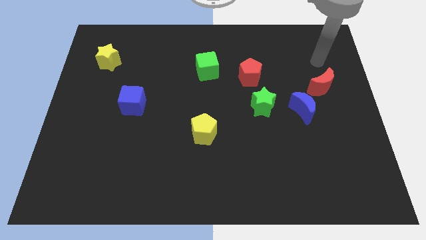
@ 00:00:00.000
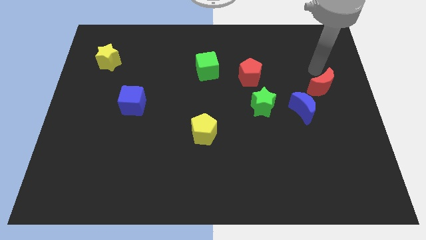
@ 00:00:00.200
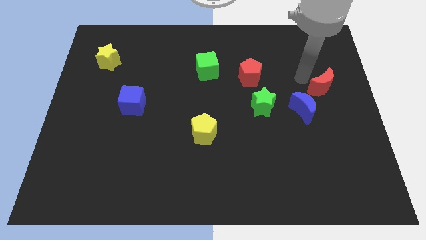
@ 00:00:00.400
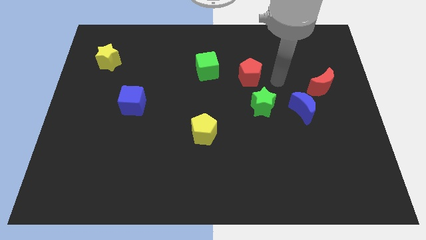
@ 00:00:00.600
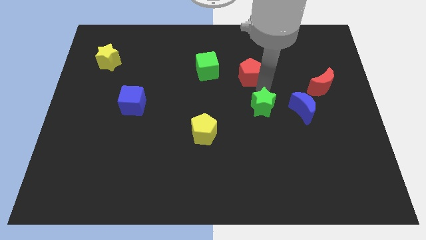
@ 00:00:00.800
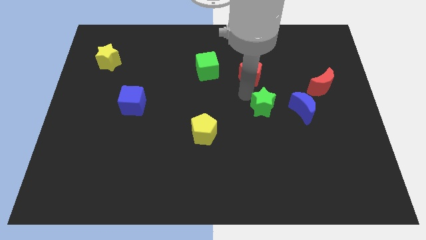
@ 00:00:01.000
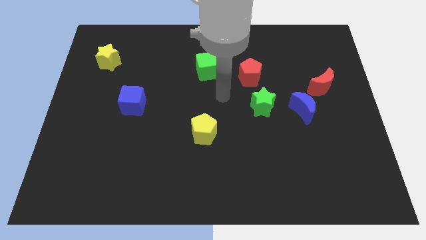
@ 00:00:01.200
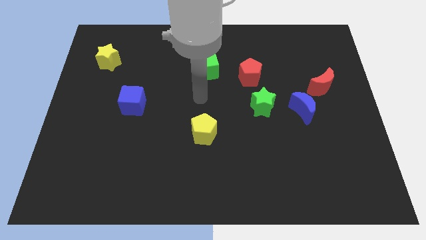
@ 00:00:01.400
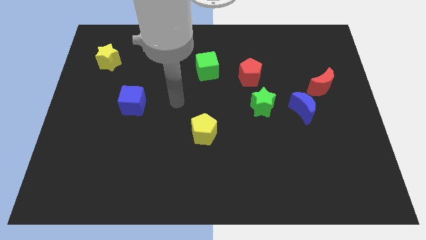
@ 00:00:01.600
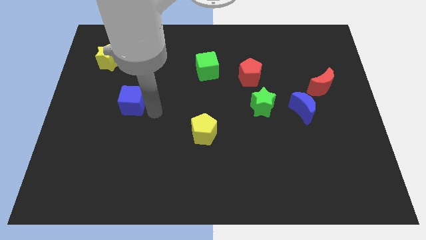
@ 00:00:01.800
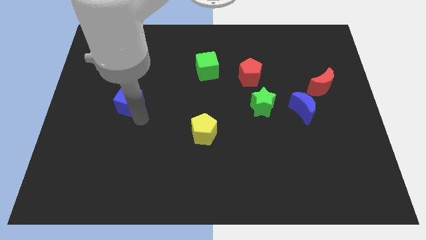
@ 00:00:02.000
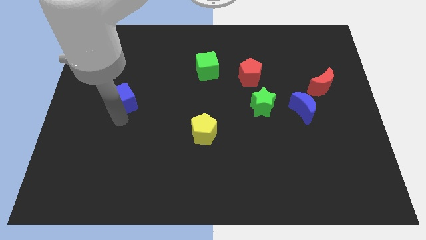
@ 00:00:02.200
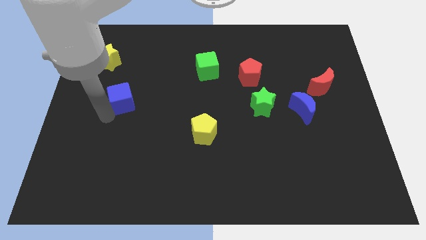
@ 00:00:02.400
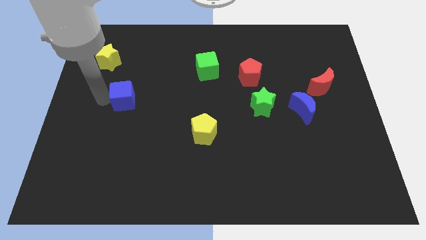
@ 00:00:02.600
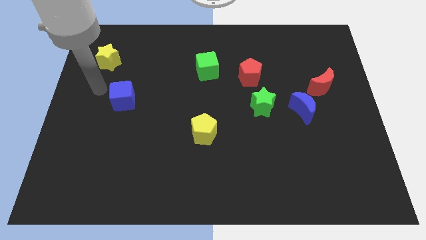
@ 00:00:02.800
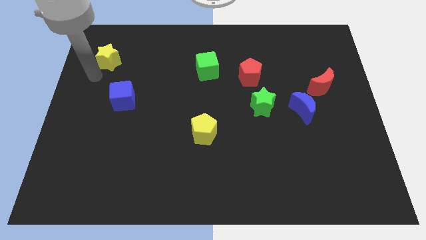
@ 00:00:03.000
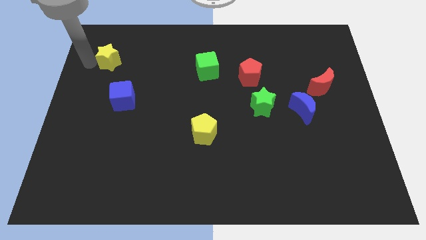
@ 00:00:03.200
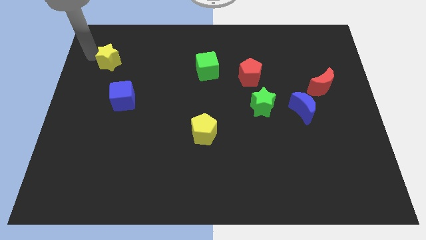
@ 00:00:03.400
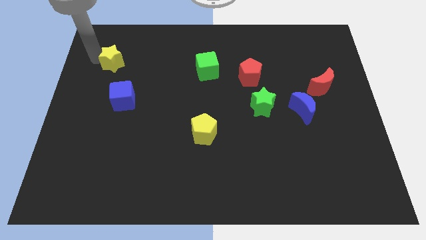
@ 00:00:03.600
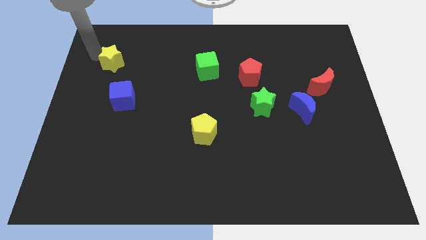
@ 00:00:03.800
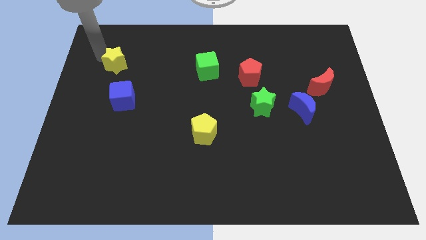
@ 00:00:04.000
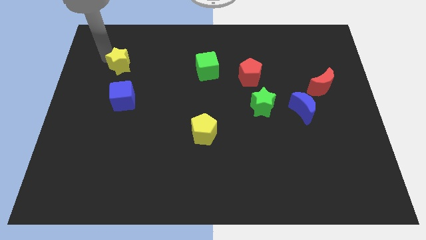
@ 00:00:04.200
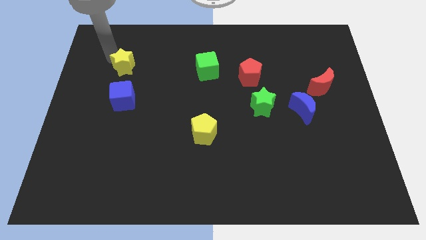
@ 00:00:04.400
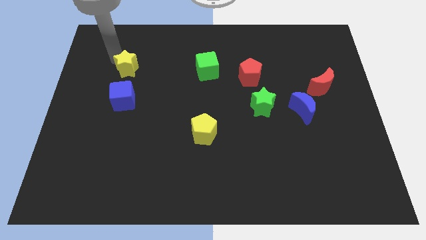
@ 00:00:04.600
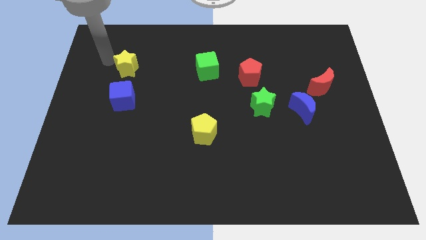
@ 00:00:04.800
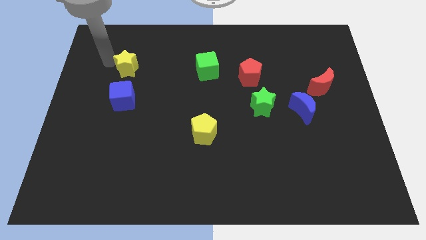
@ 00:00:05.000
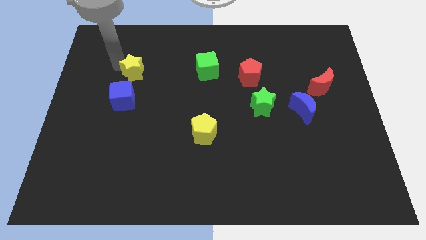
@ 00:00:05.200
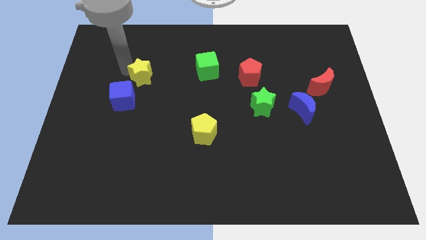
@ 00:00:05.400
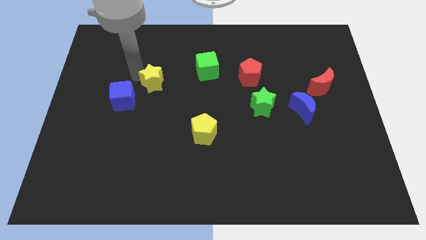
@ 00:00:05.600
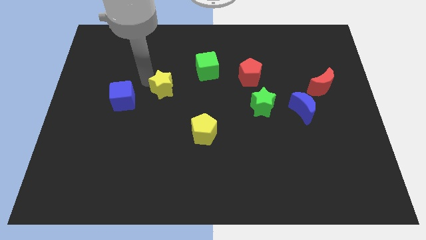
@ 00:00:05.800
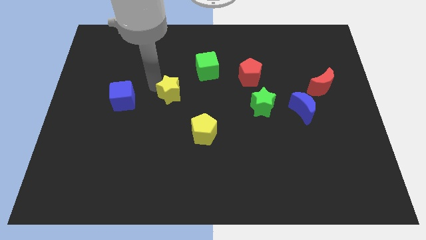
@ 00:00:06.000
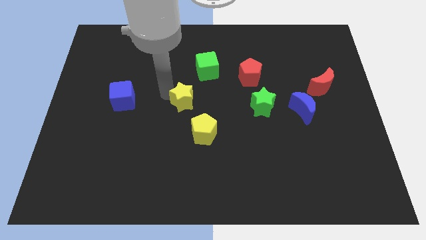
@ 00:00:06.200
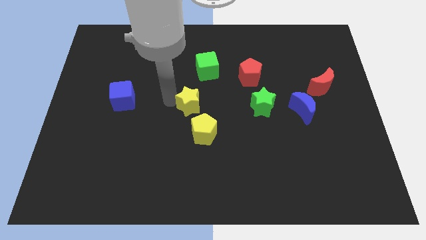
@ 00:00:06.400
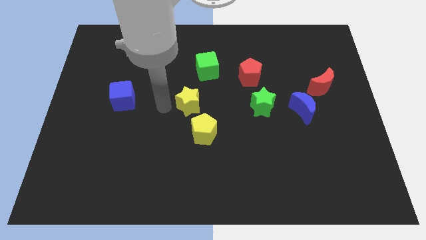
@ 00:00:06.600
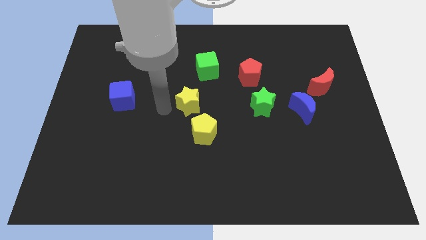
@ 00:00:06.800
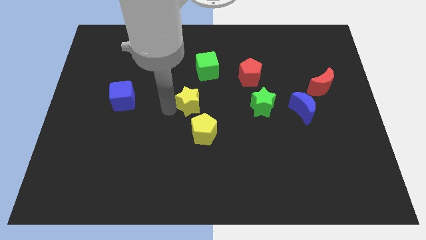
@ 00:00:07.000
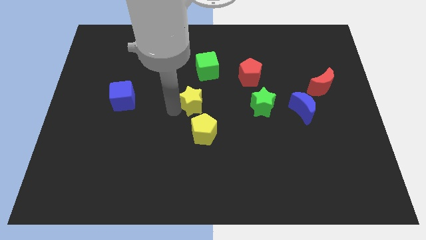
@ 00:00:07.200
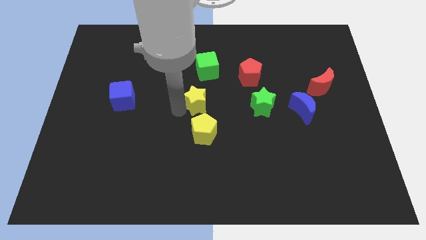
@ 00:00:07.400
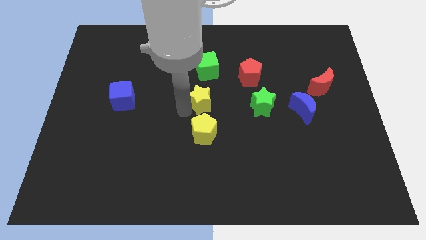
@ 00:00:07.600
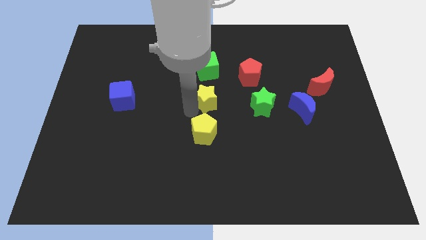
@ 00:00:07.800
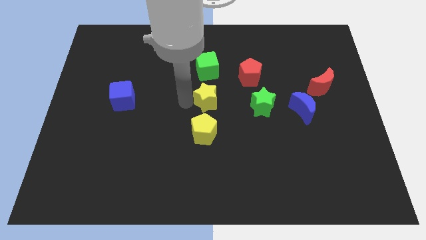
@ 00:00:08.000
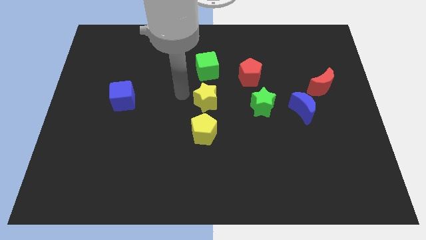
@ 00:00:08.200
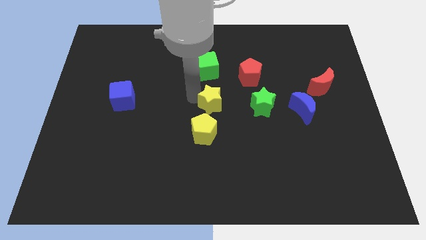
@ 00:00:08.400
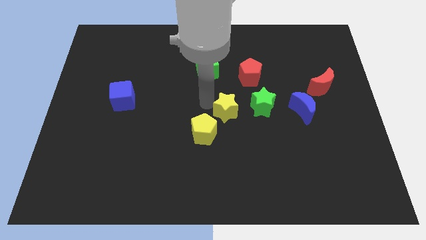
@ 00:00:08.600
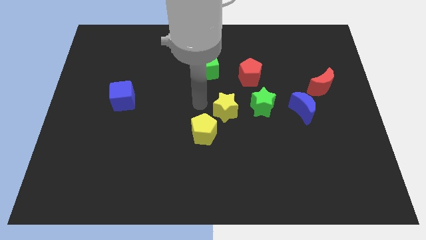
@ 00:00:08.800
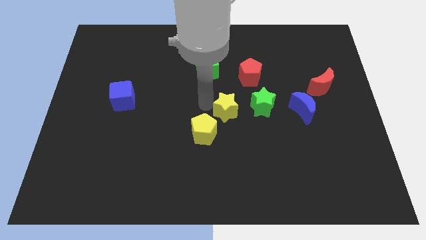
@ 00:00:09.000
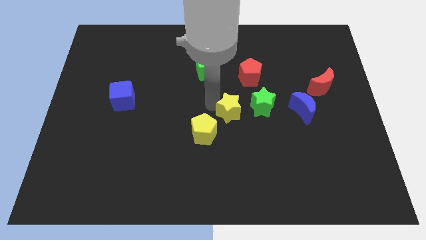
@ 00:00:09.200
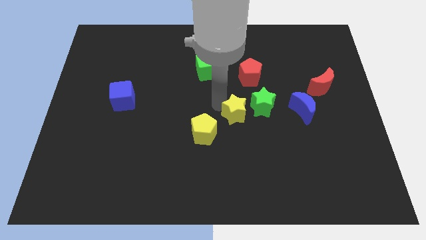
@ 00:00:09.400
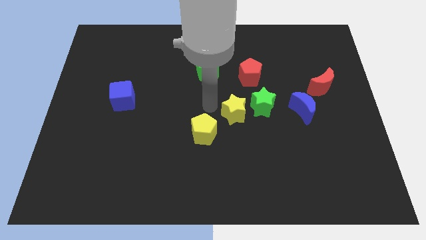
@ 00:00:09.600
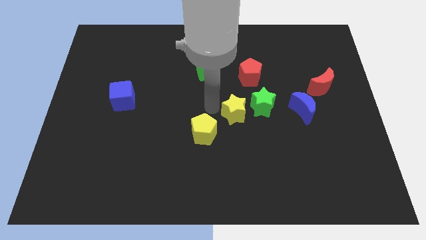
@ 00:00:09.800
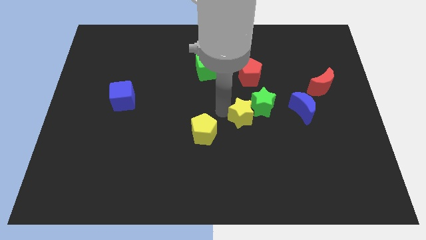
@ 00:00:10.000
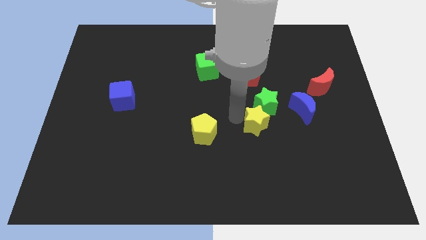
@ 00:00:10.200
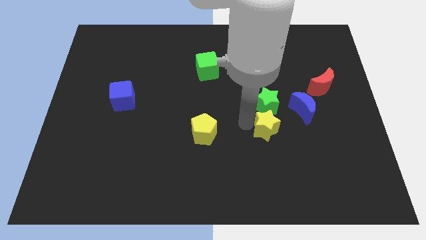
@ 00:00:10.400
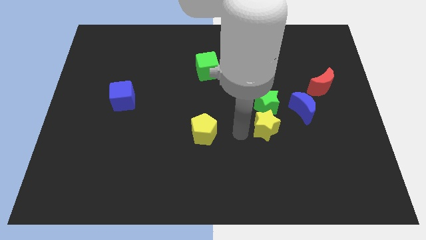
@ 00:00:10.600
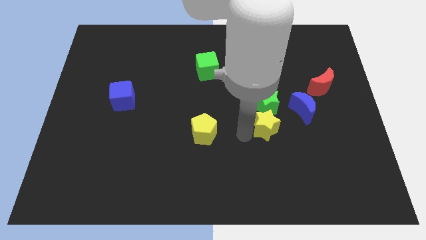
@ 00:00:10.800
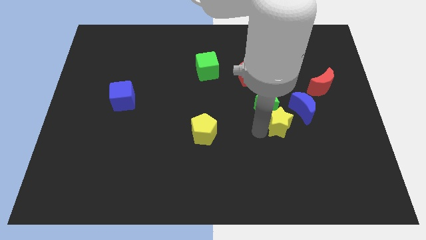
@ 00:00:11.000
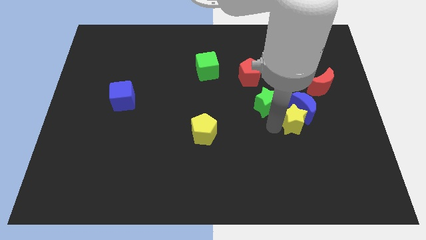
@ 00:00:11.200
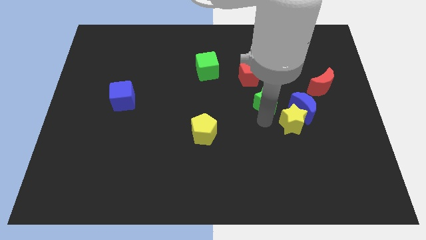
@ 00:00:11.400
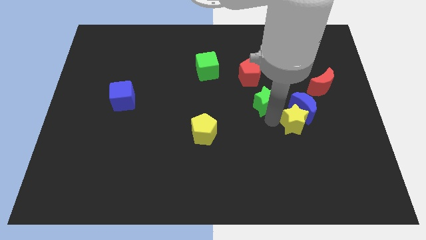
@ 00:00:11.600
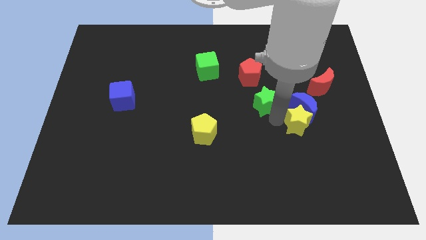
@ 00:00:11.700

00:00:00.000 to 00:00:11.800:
put the yellow star to the bottom right of the blue moon

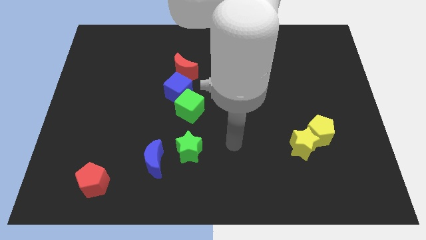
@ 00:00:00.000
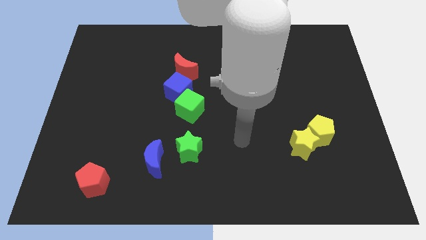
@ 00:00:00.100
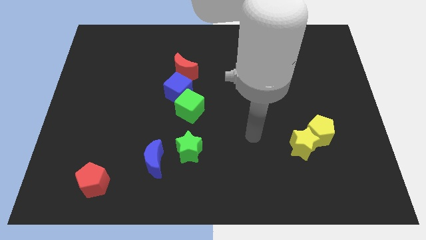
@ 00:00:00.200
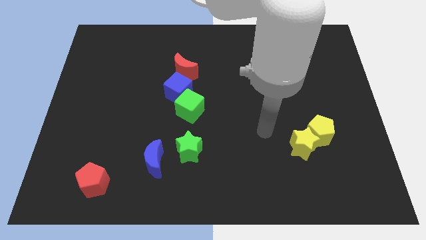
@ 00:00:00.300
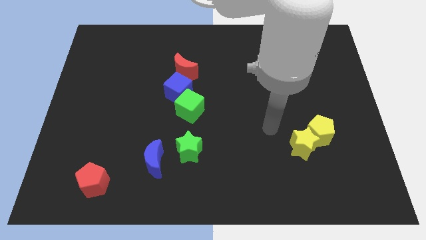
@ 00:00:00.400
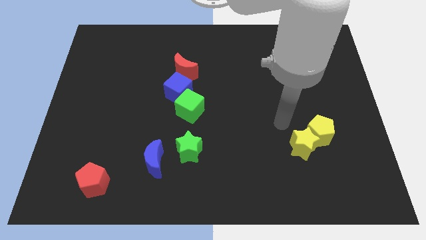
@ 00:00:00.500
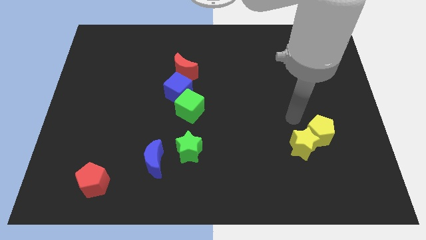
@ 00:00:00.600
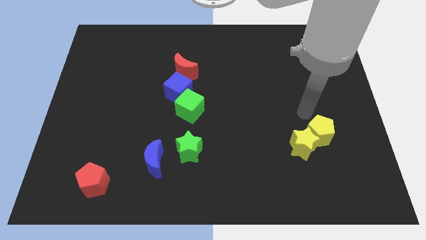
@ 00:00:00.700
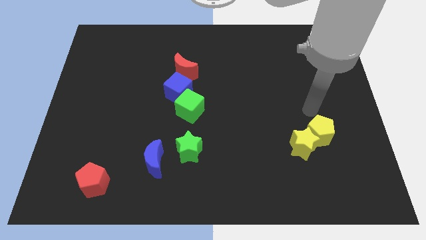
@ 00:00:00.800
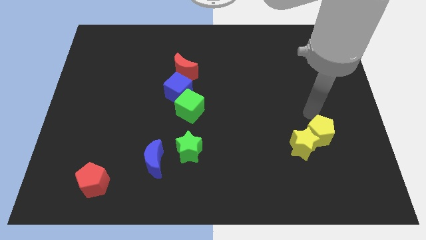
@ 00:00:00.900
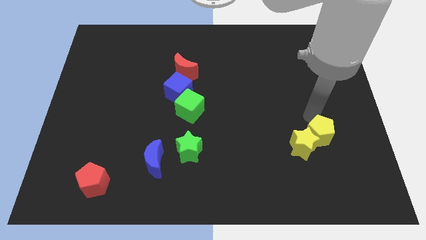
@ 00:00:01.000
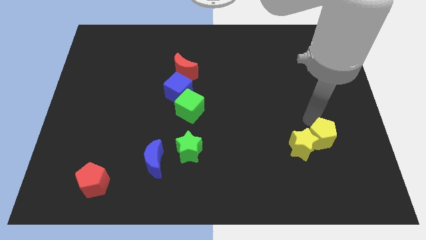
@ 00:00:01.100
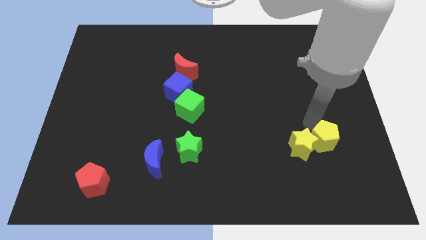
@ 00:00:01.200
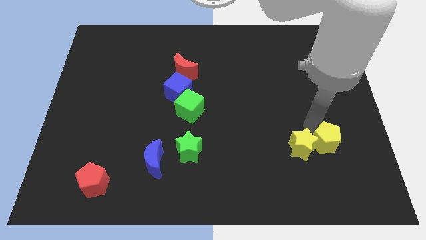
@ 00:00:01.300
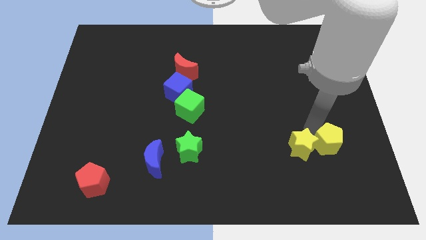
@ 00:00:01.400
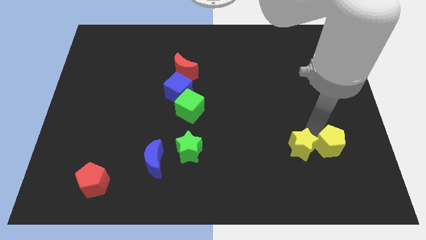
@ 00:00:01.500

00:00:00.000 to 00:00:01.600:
push the yellow pentagon diagonally down and to the right of the yellow star

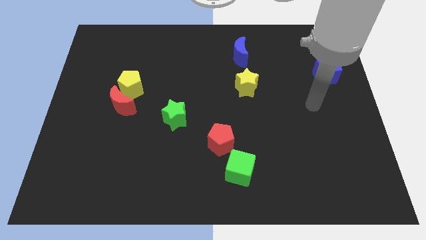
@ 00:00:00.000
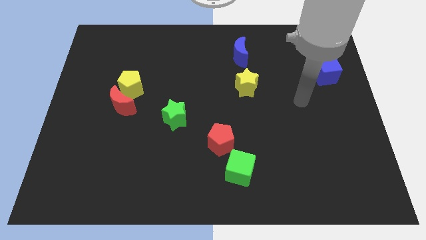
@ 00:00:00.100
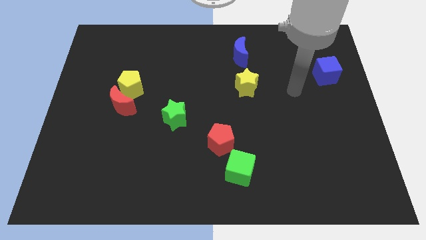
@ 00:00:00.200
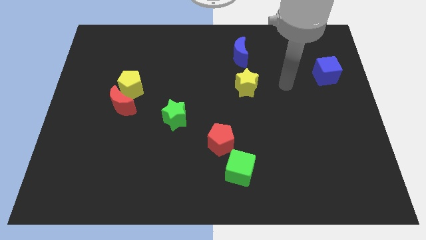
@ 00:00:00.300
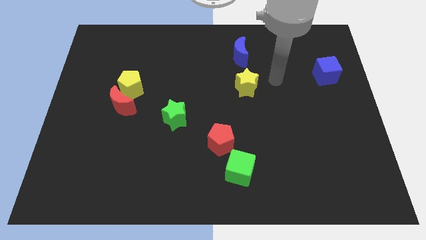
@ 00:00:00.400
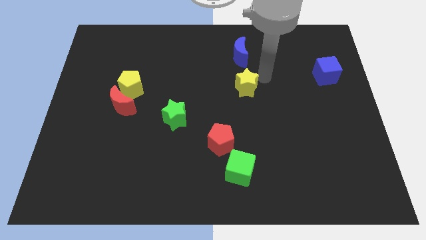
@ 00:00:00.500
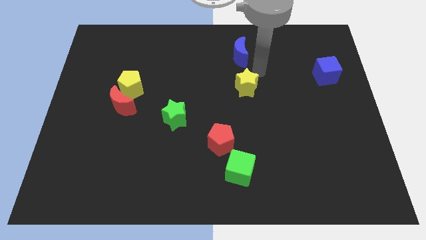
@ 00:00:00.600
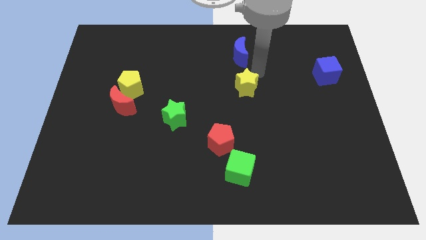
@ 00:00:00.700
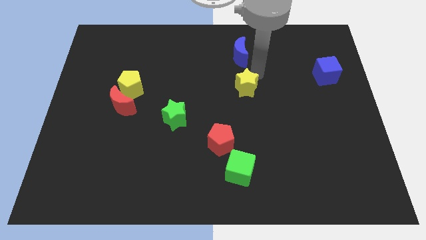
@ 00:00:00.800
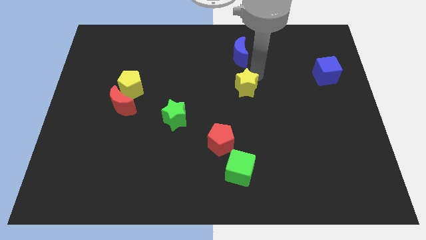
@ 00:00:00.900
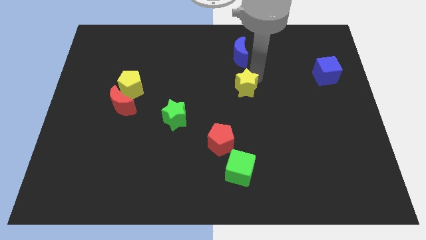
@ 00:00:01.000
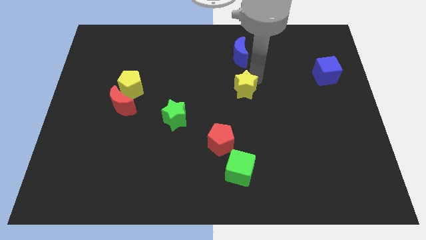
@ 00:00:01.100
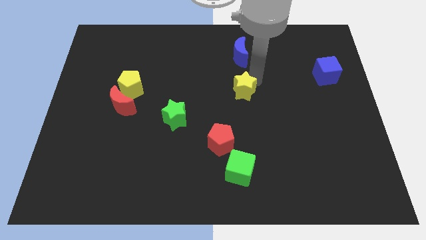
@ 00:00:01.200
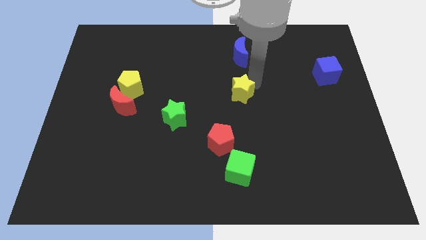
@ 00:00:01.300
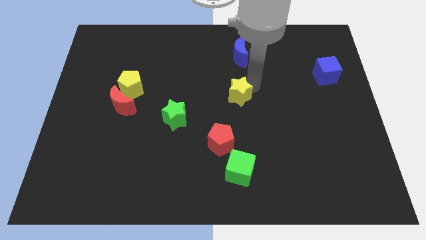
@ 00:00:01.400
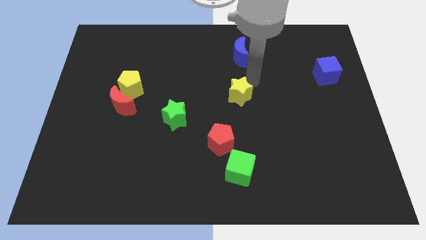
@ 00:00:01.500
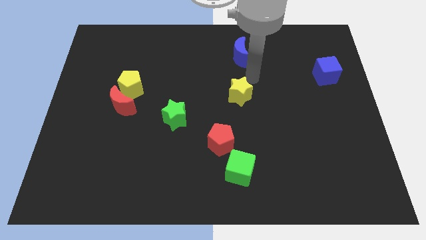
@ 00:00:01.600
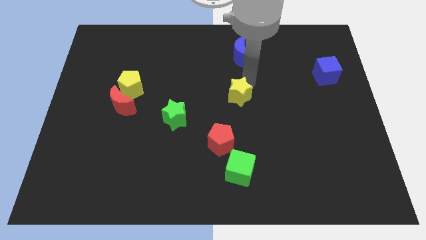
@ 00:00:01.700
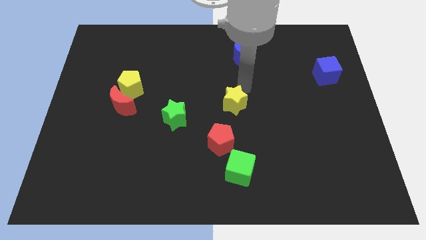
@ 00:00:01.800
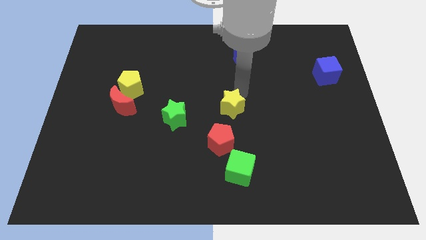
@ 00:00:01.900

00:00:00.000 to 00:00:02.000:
move the yellow star to the right of the green star
